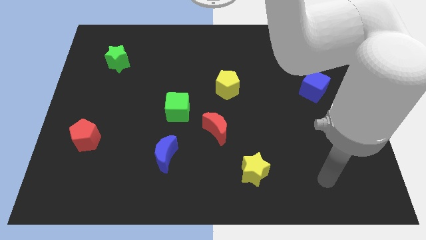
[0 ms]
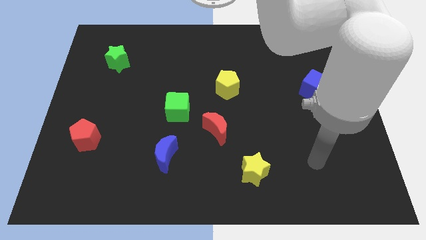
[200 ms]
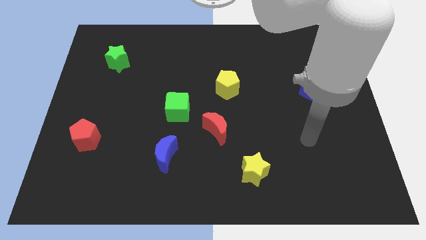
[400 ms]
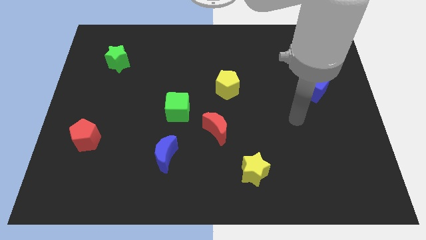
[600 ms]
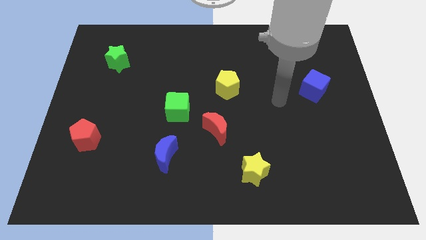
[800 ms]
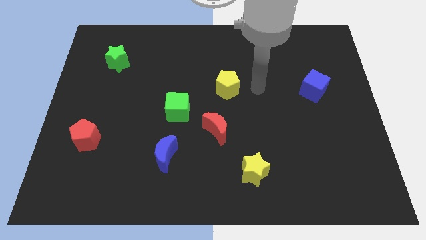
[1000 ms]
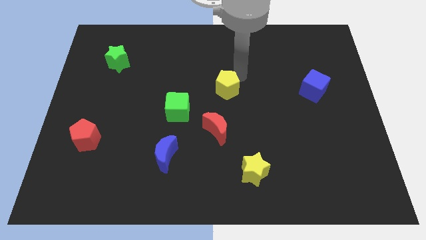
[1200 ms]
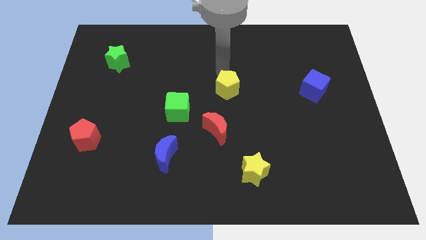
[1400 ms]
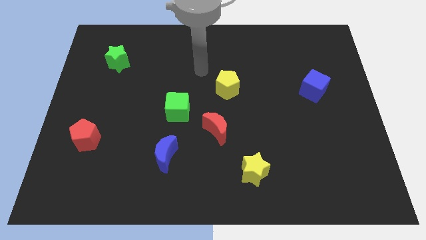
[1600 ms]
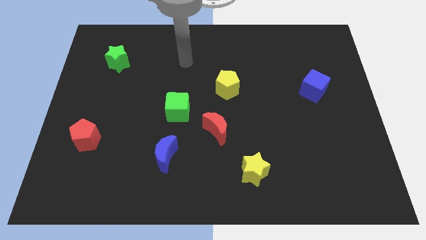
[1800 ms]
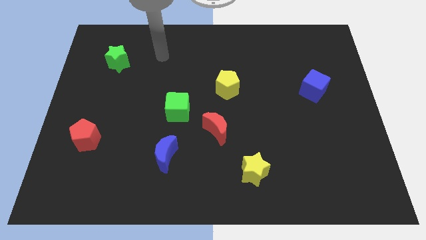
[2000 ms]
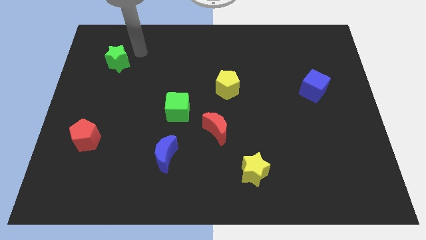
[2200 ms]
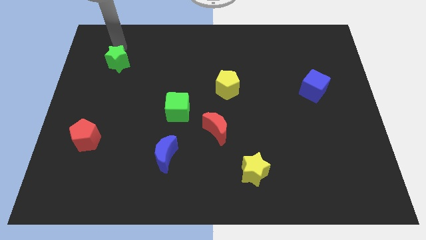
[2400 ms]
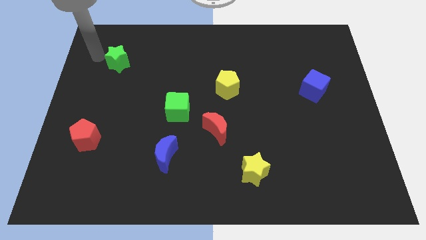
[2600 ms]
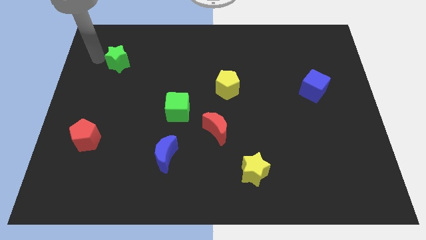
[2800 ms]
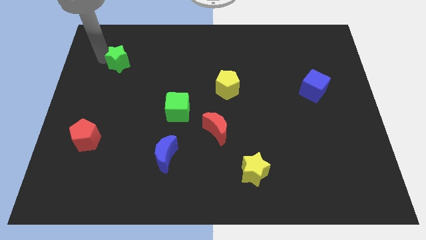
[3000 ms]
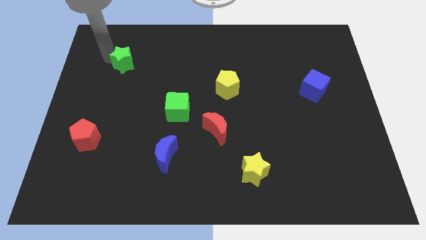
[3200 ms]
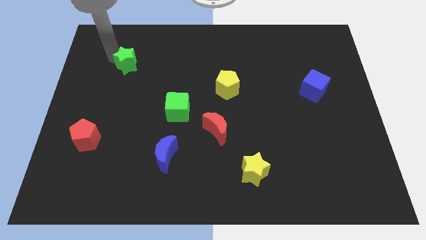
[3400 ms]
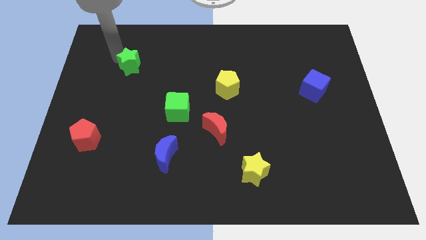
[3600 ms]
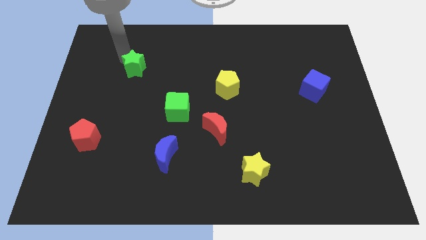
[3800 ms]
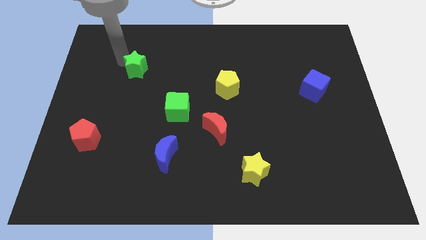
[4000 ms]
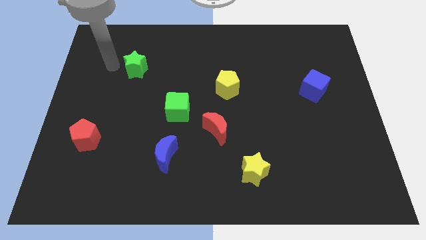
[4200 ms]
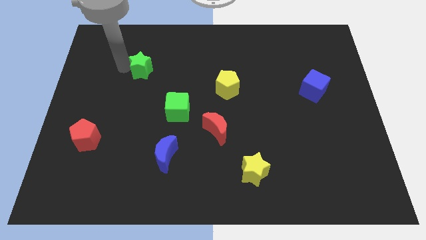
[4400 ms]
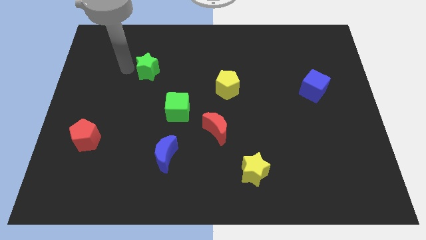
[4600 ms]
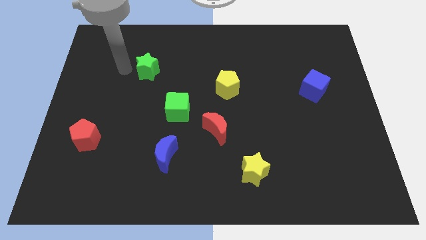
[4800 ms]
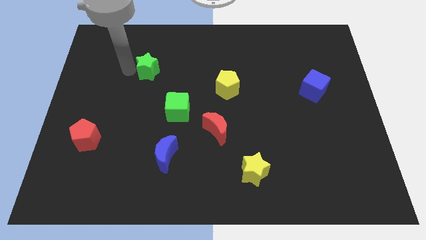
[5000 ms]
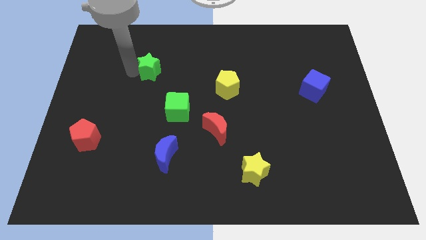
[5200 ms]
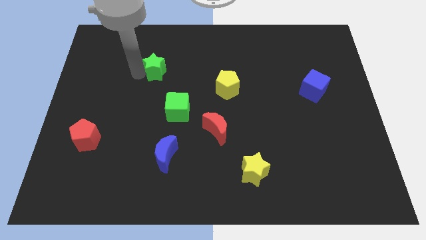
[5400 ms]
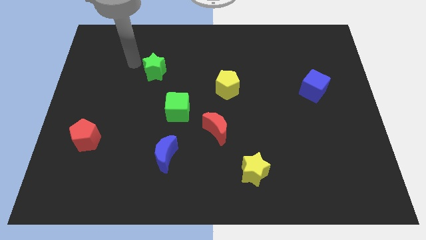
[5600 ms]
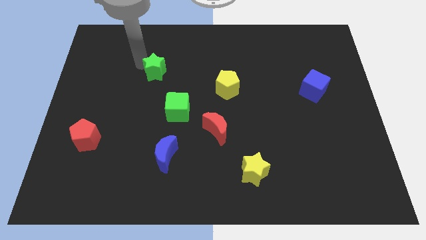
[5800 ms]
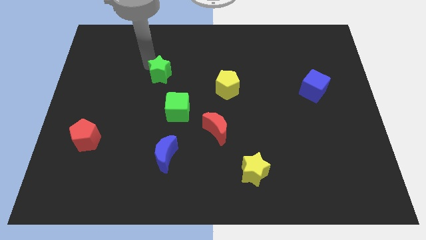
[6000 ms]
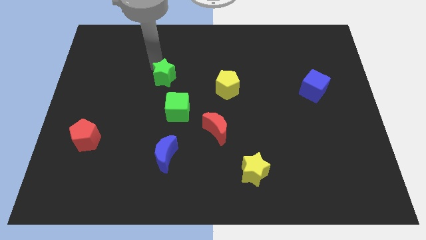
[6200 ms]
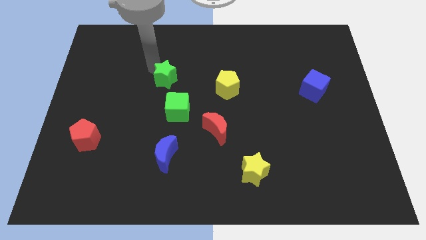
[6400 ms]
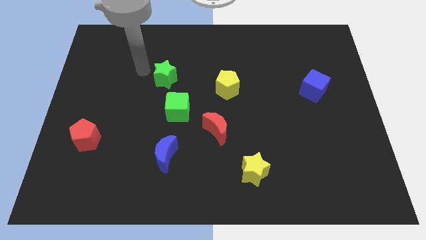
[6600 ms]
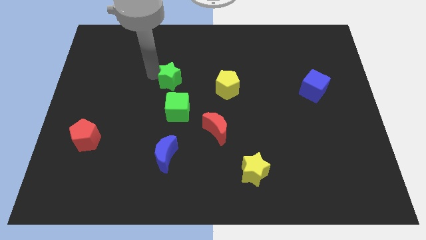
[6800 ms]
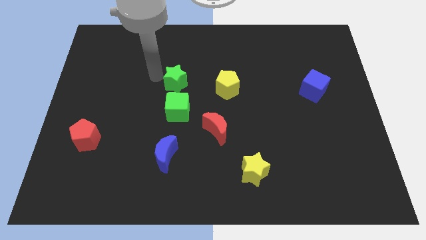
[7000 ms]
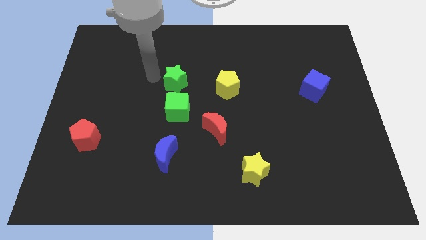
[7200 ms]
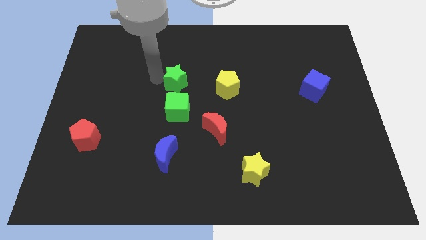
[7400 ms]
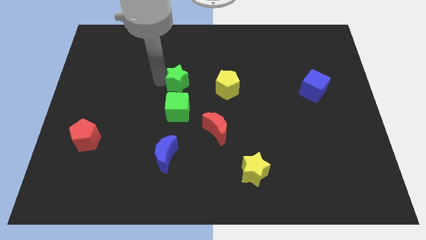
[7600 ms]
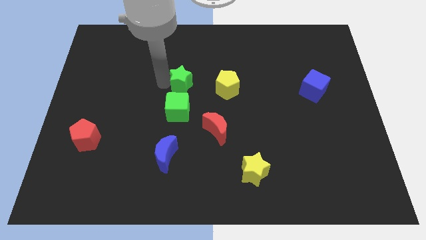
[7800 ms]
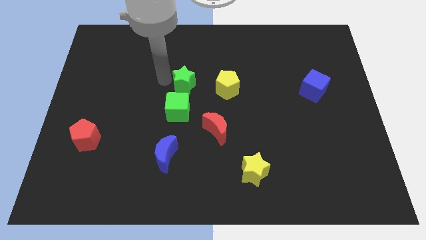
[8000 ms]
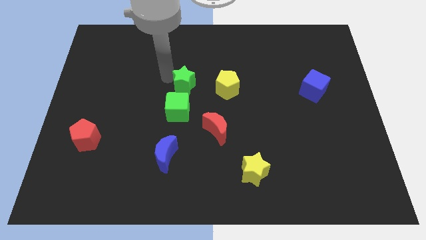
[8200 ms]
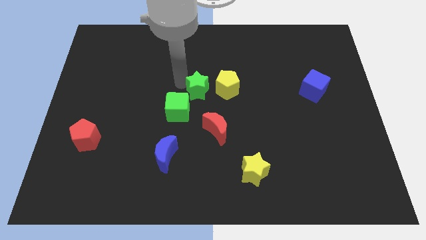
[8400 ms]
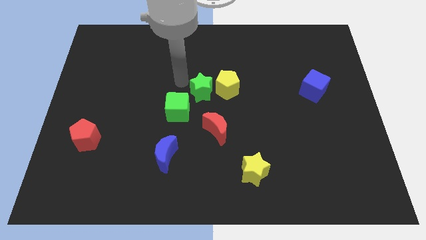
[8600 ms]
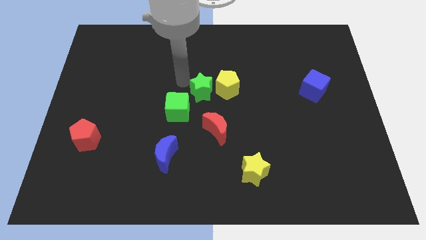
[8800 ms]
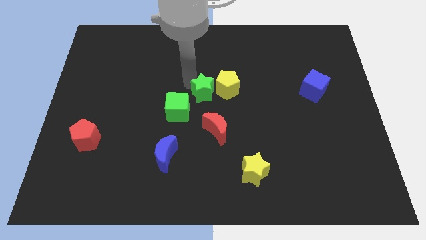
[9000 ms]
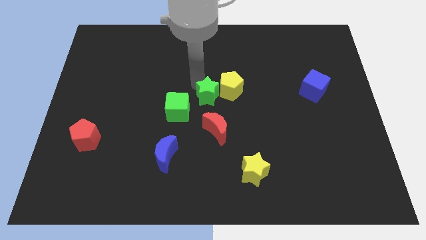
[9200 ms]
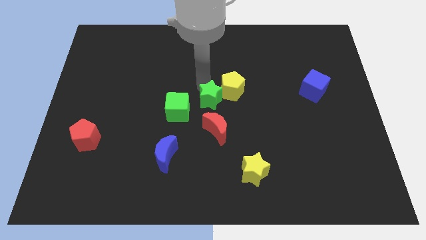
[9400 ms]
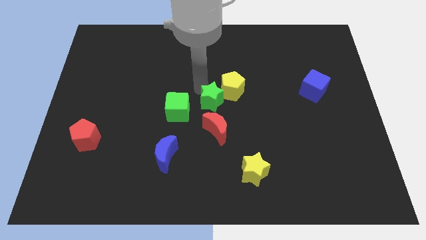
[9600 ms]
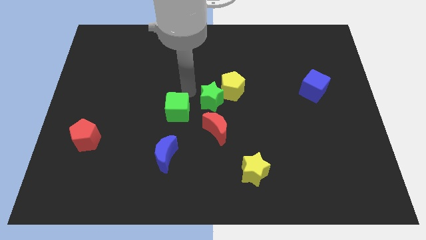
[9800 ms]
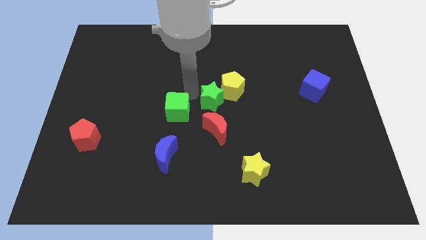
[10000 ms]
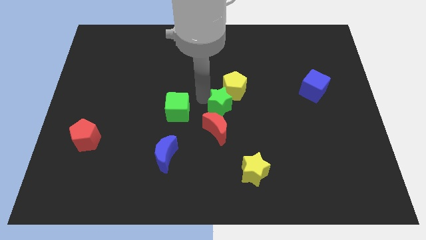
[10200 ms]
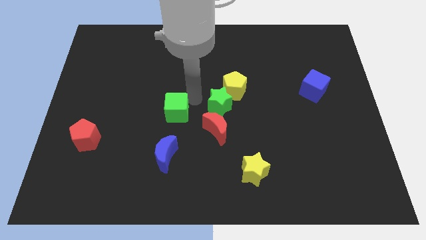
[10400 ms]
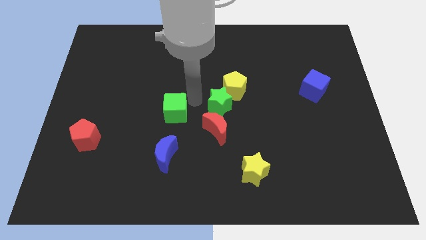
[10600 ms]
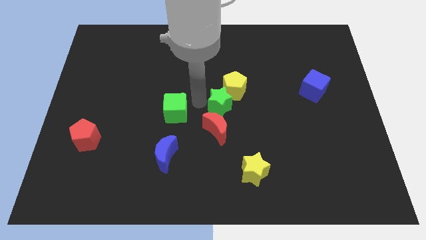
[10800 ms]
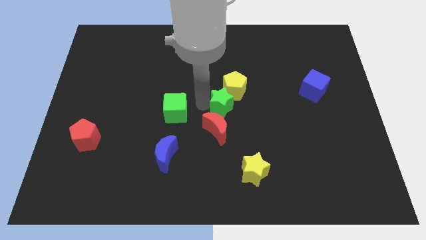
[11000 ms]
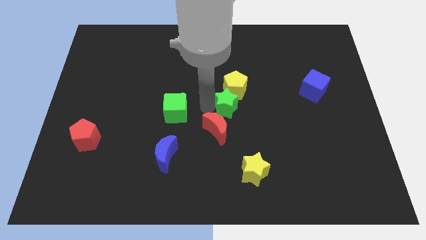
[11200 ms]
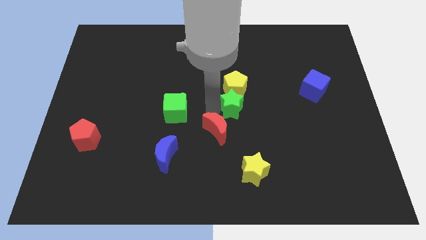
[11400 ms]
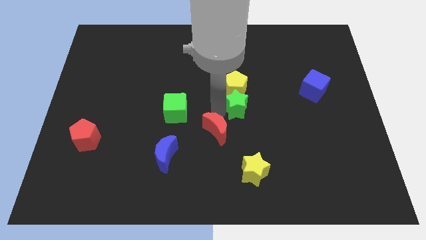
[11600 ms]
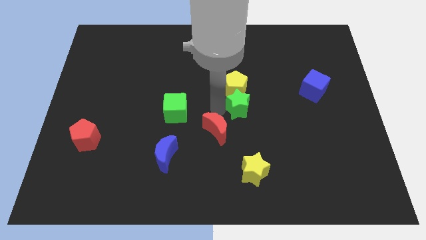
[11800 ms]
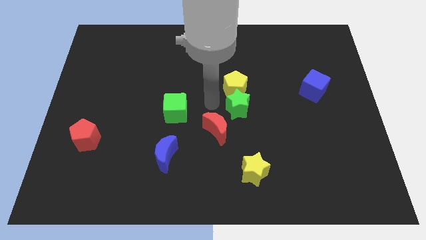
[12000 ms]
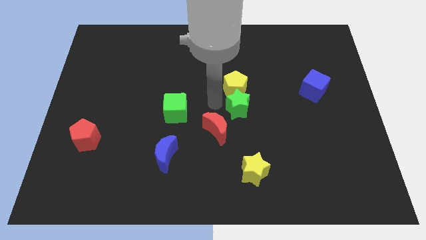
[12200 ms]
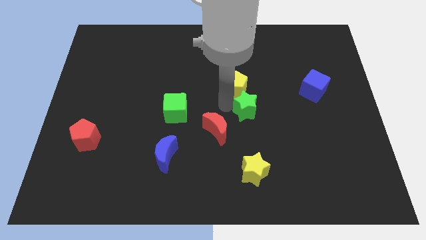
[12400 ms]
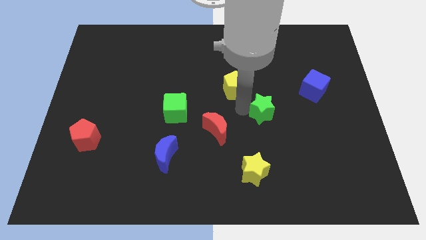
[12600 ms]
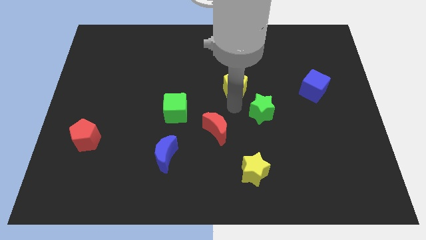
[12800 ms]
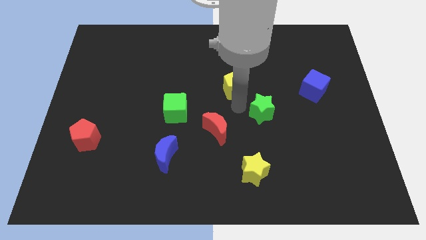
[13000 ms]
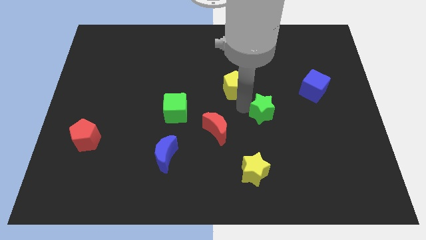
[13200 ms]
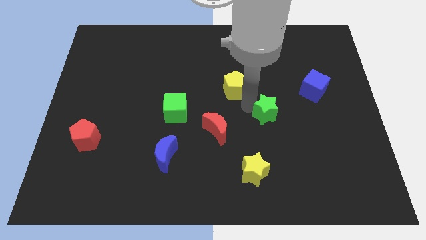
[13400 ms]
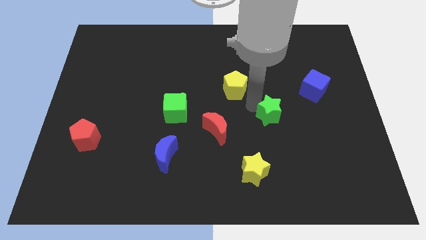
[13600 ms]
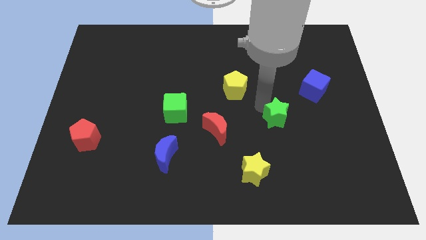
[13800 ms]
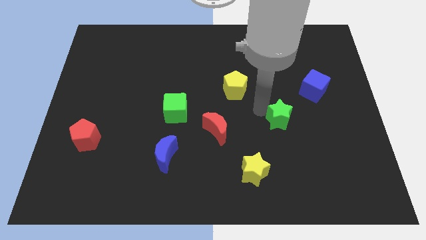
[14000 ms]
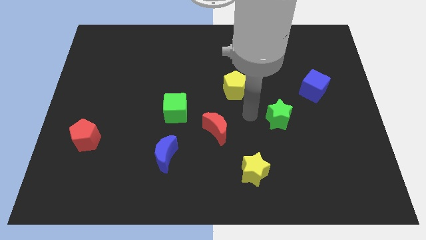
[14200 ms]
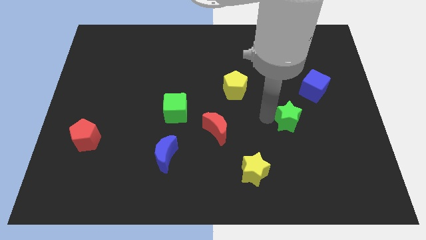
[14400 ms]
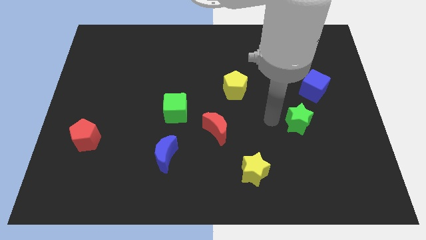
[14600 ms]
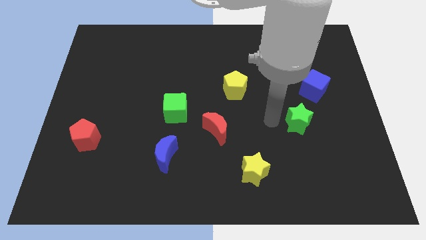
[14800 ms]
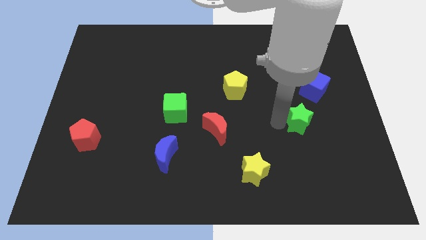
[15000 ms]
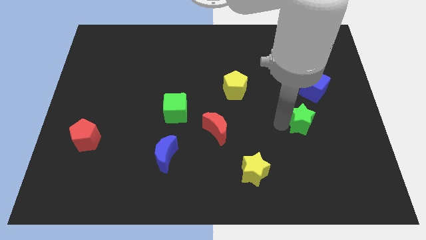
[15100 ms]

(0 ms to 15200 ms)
push the green star to the bottom side of the blue cube

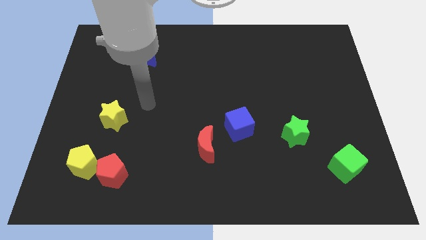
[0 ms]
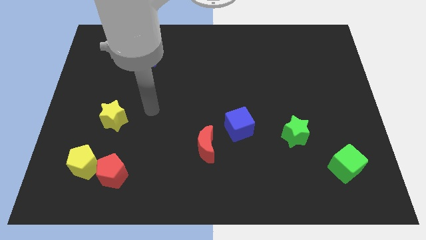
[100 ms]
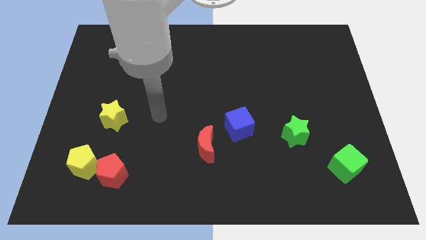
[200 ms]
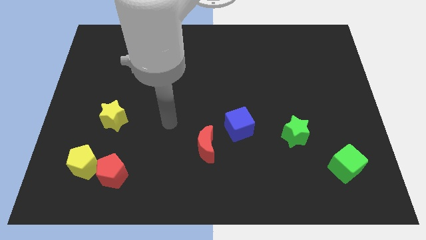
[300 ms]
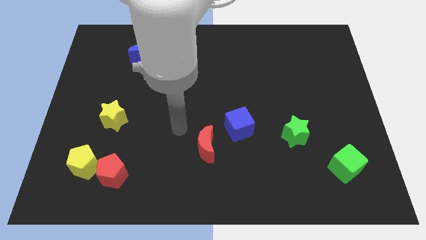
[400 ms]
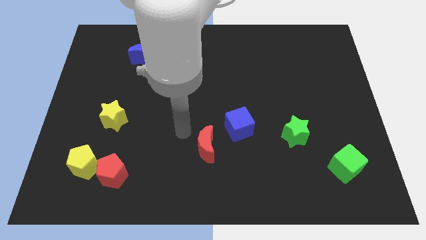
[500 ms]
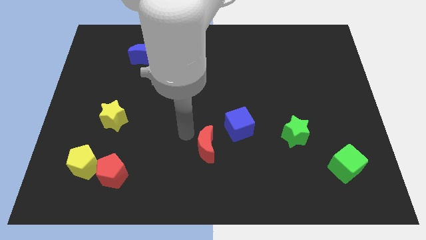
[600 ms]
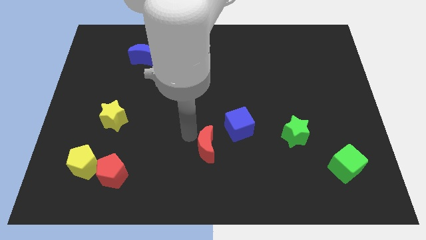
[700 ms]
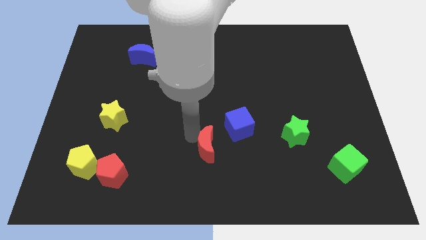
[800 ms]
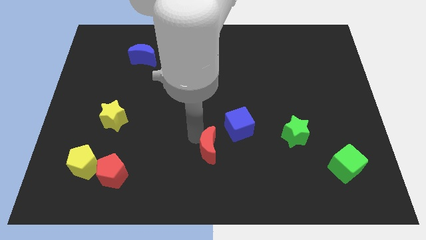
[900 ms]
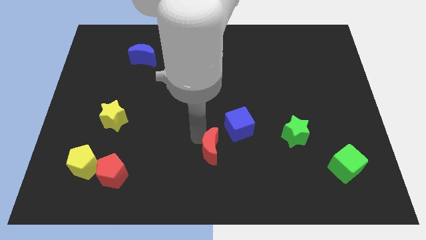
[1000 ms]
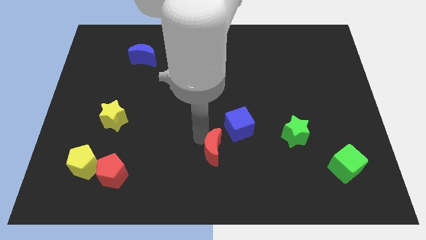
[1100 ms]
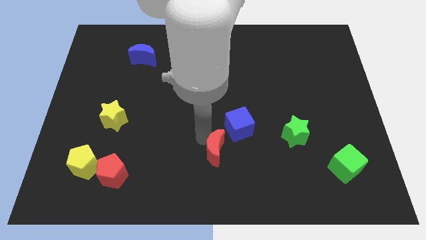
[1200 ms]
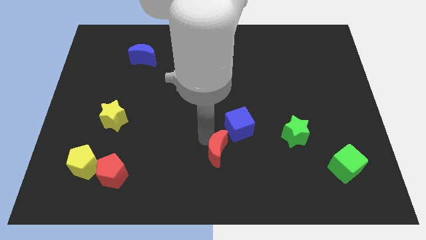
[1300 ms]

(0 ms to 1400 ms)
slide the red moon to the bottom of the blue cube
